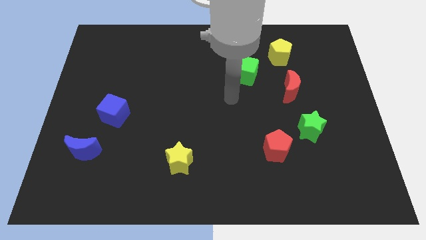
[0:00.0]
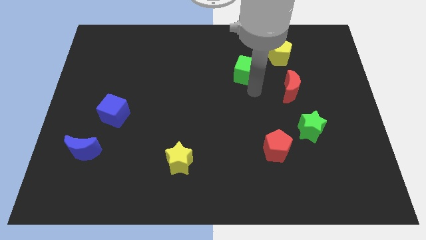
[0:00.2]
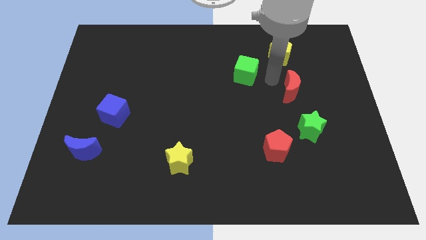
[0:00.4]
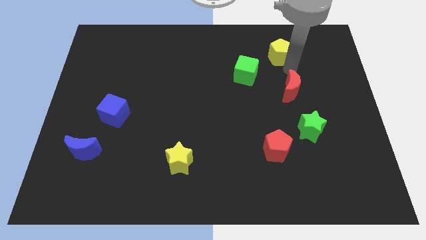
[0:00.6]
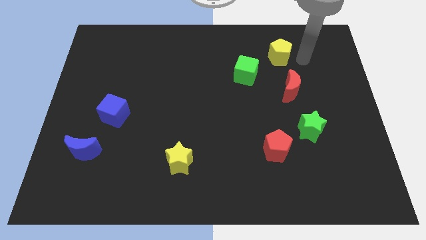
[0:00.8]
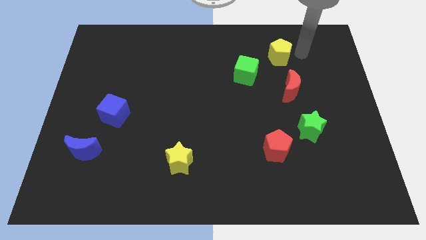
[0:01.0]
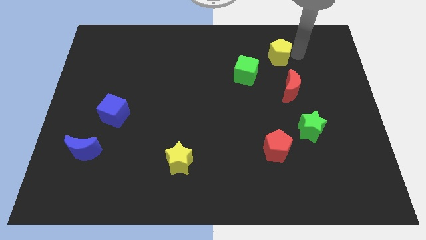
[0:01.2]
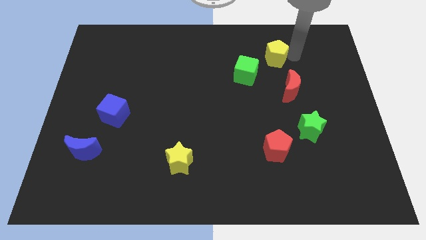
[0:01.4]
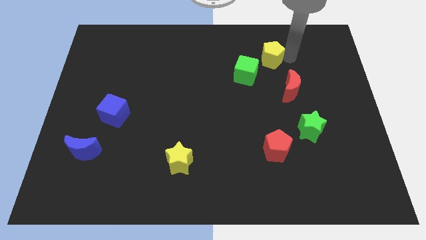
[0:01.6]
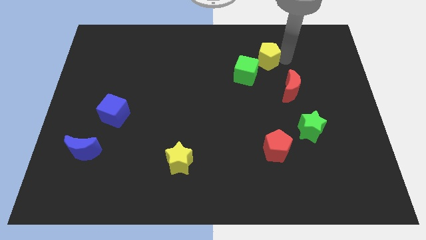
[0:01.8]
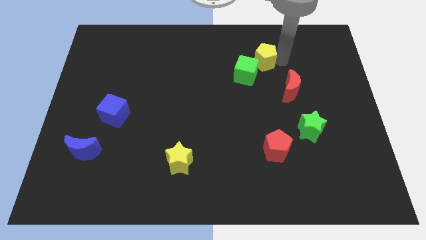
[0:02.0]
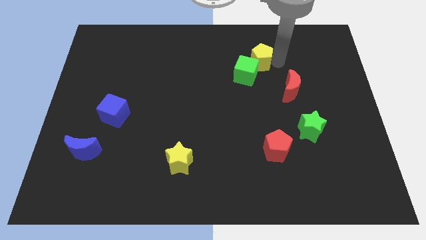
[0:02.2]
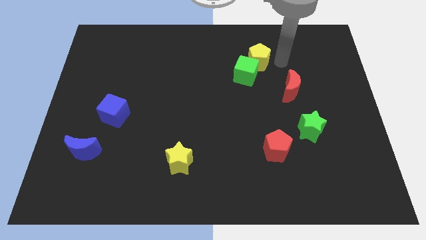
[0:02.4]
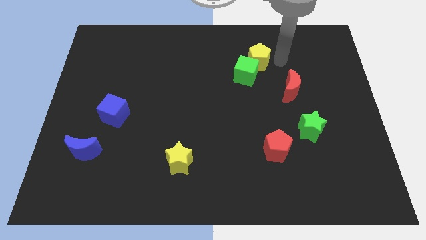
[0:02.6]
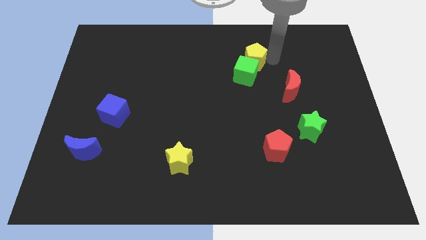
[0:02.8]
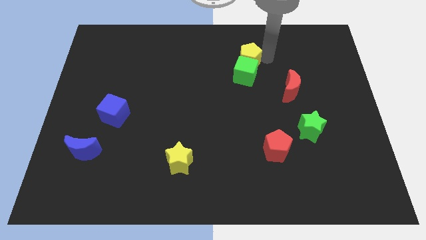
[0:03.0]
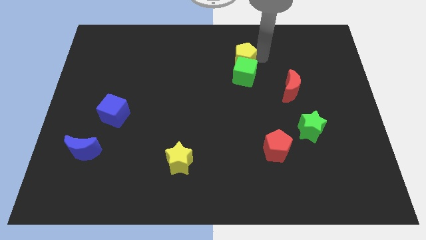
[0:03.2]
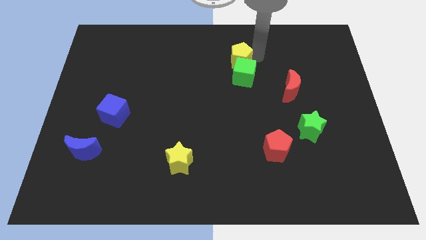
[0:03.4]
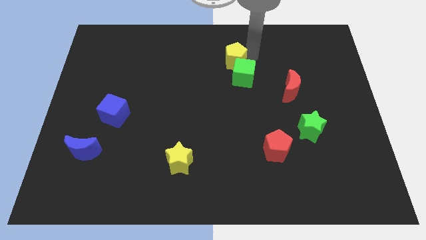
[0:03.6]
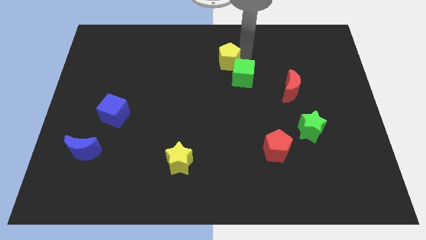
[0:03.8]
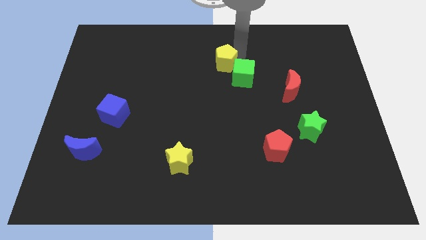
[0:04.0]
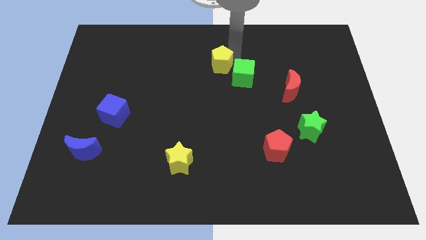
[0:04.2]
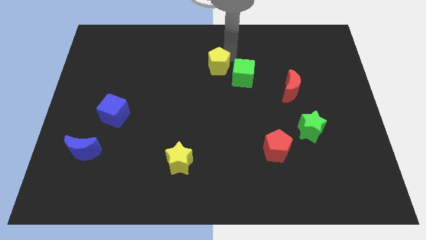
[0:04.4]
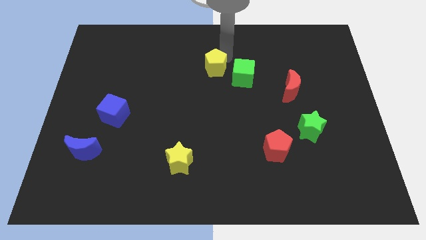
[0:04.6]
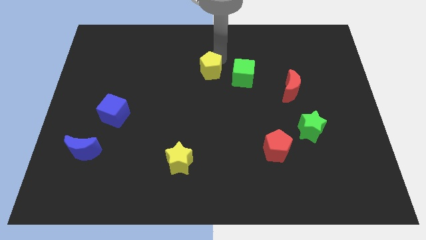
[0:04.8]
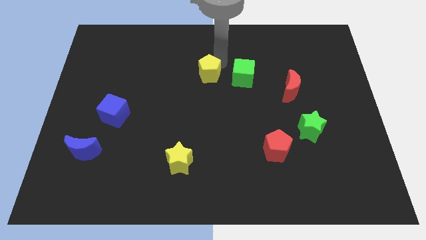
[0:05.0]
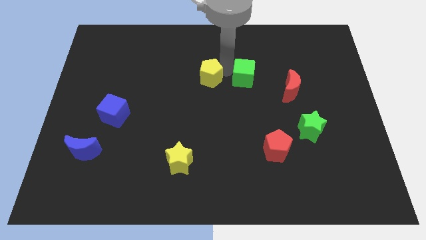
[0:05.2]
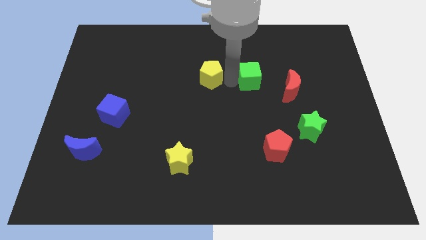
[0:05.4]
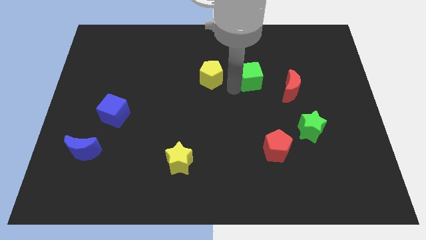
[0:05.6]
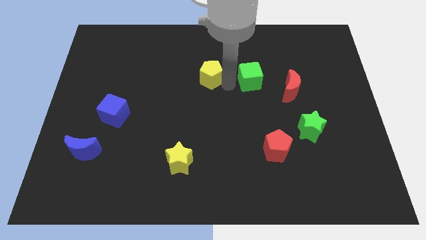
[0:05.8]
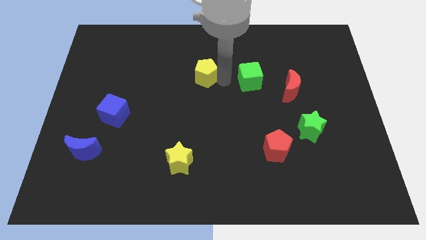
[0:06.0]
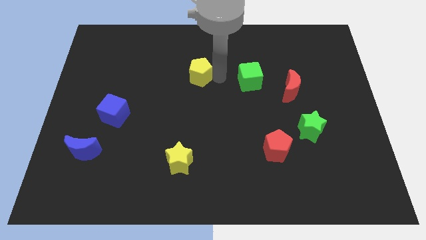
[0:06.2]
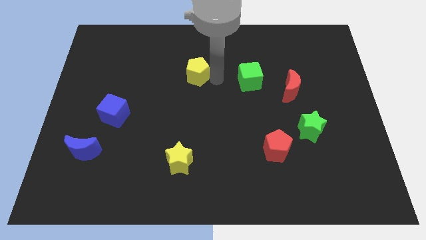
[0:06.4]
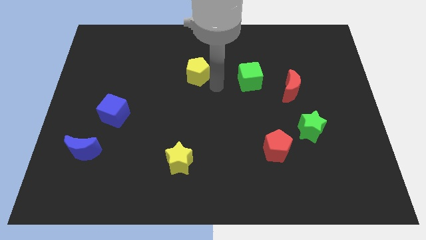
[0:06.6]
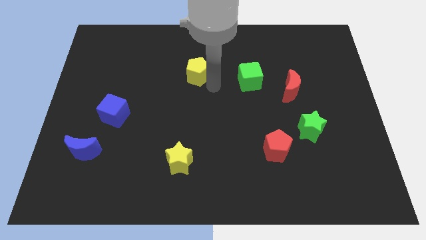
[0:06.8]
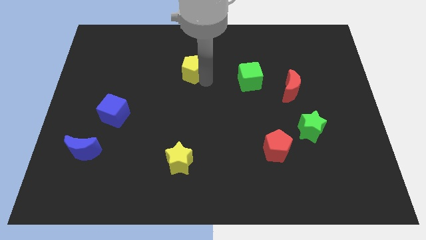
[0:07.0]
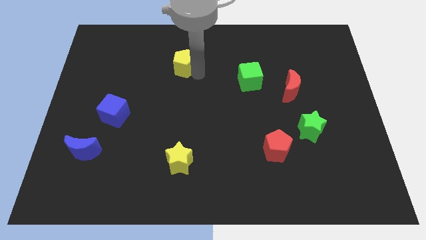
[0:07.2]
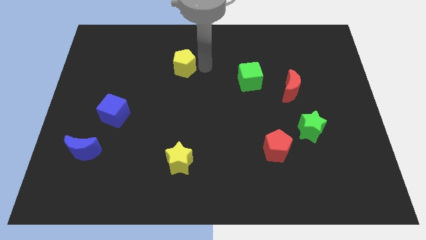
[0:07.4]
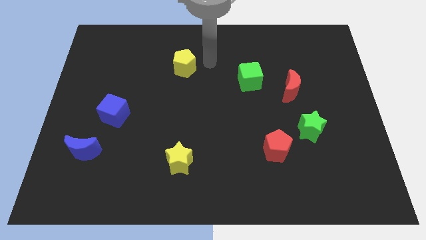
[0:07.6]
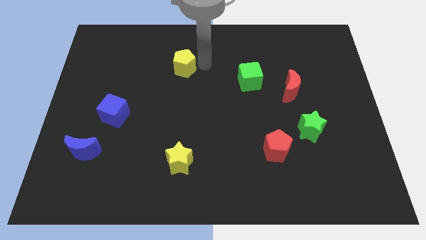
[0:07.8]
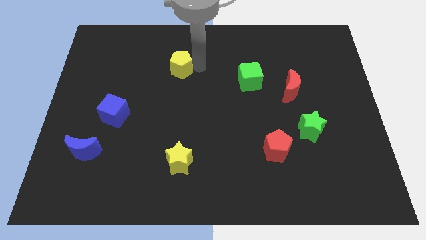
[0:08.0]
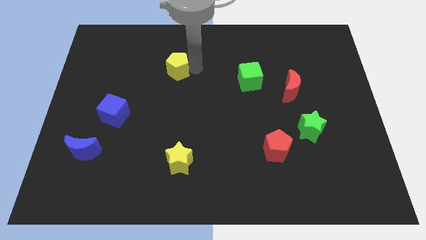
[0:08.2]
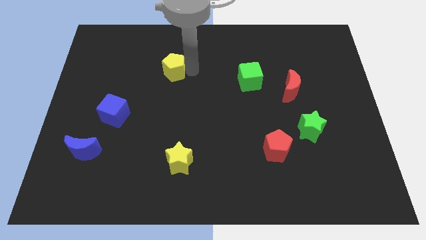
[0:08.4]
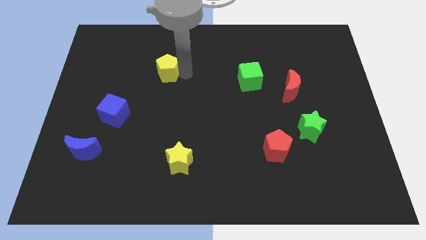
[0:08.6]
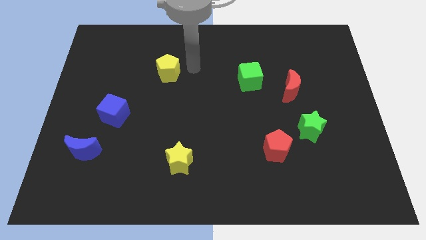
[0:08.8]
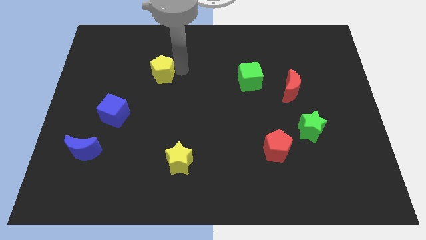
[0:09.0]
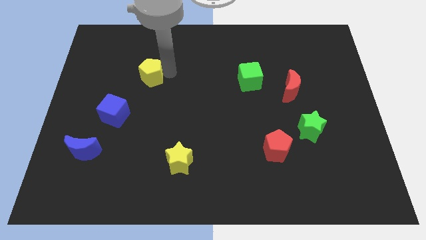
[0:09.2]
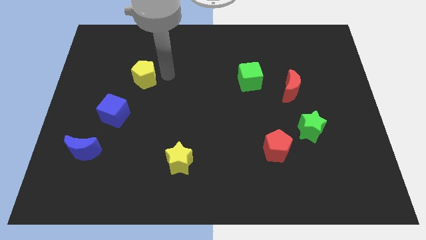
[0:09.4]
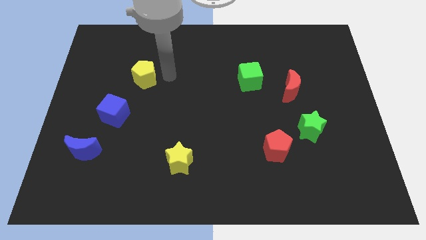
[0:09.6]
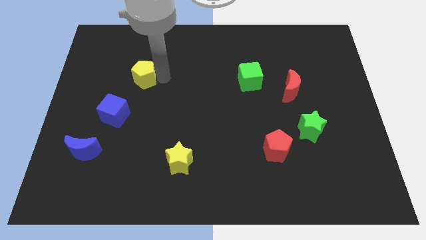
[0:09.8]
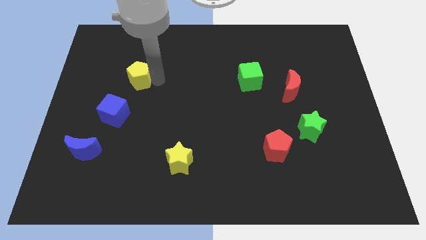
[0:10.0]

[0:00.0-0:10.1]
slide the yellow pentagon to the top of the blue cube

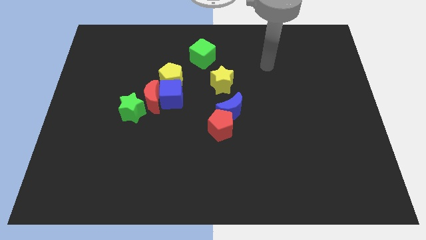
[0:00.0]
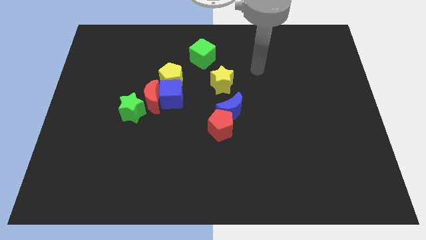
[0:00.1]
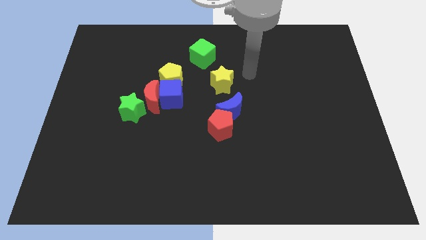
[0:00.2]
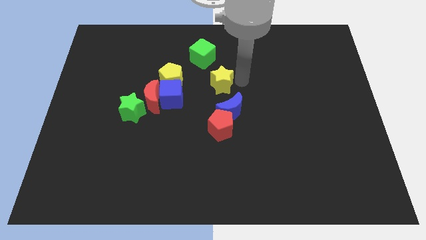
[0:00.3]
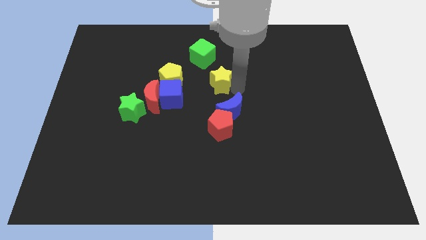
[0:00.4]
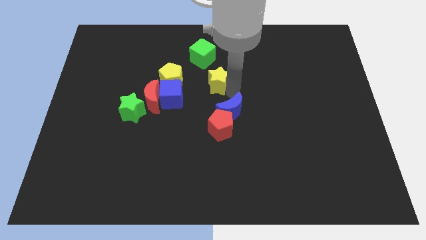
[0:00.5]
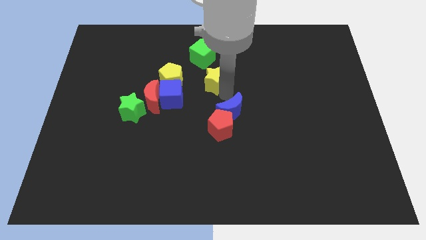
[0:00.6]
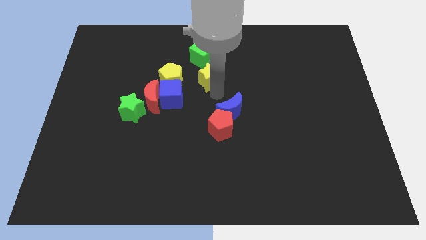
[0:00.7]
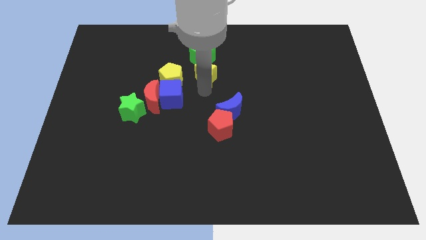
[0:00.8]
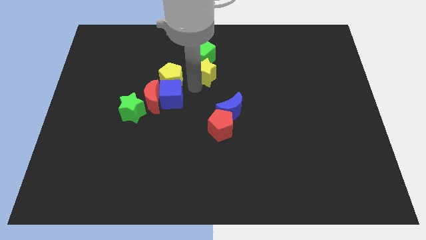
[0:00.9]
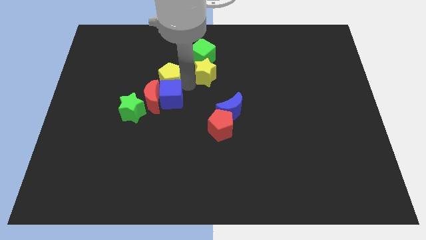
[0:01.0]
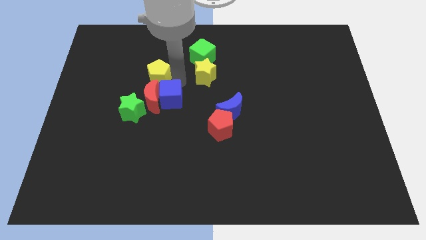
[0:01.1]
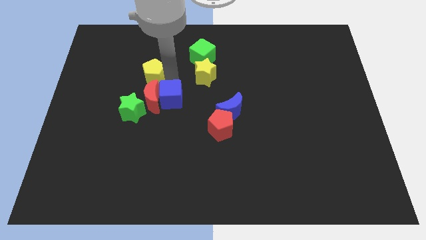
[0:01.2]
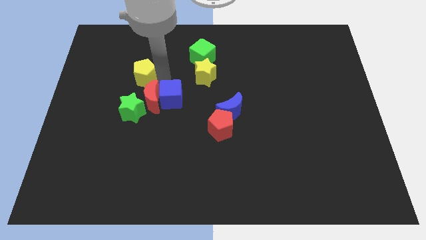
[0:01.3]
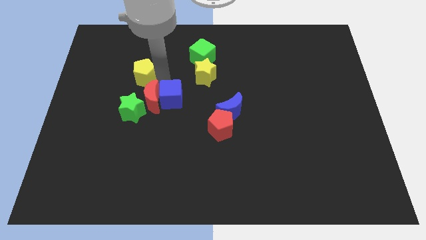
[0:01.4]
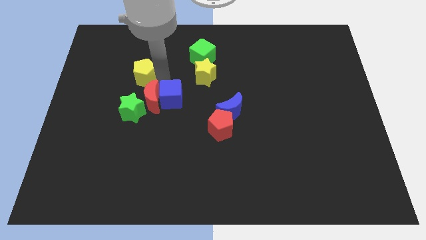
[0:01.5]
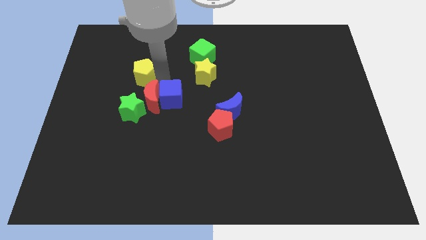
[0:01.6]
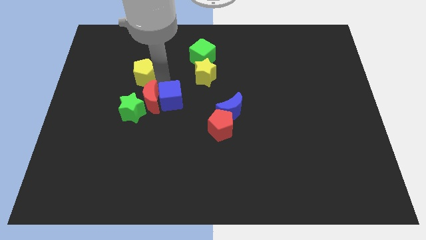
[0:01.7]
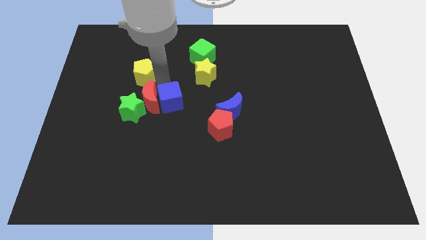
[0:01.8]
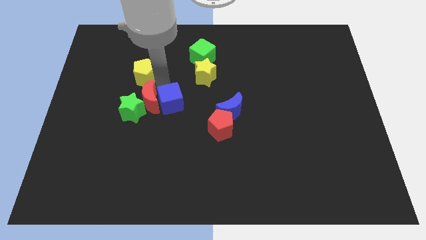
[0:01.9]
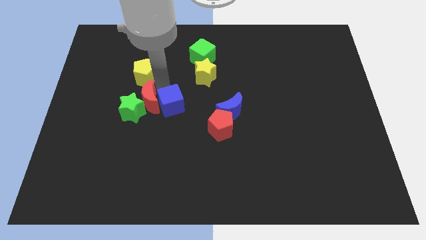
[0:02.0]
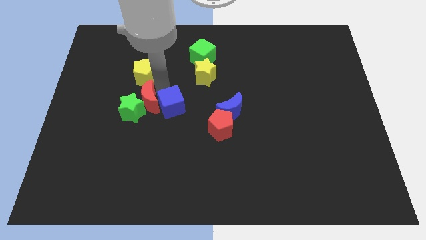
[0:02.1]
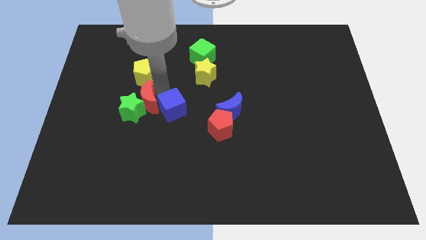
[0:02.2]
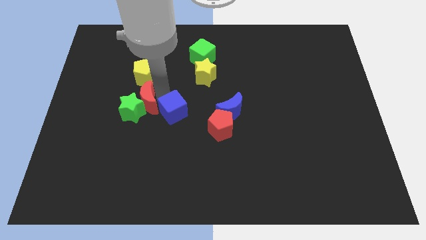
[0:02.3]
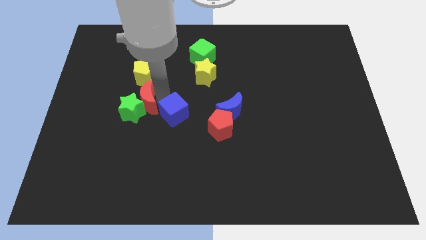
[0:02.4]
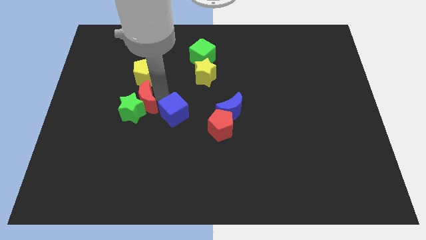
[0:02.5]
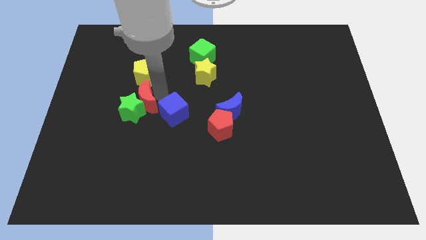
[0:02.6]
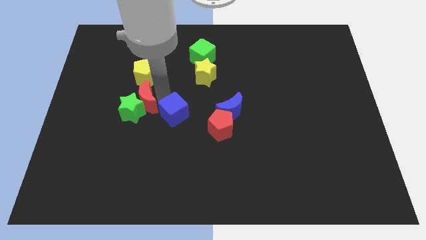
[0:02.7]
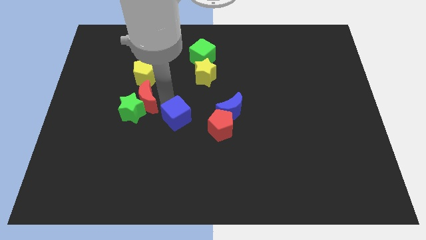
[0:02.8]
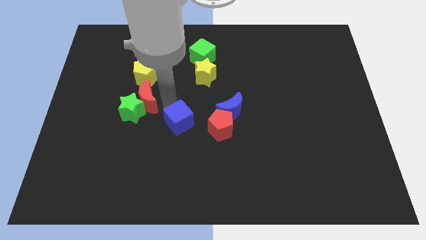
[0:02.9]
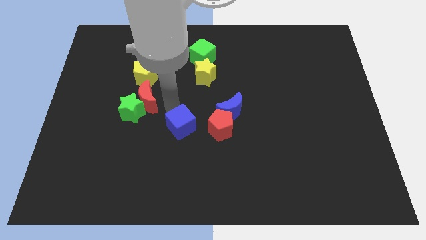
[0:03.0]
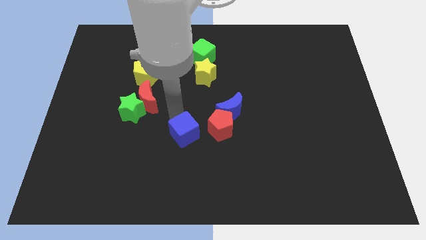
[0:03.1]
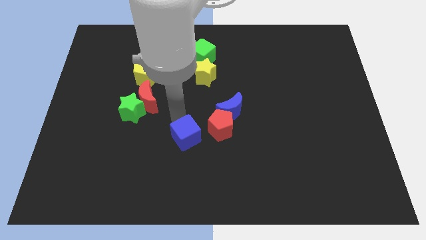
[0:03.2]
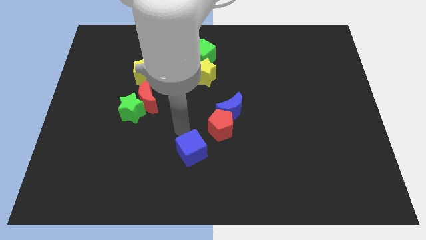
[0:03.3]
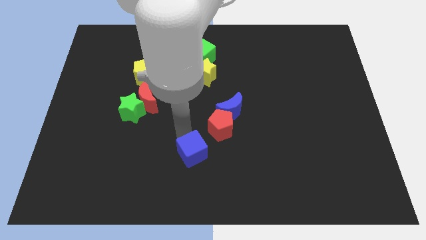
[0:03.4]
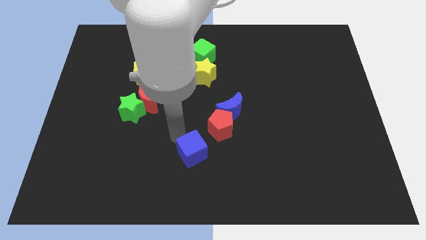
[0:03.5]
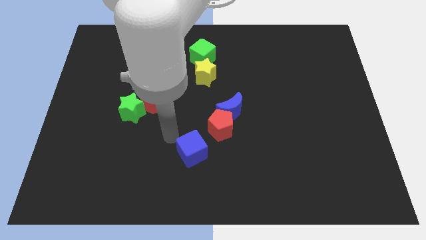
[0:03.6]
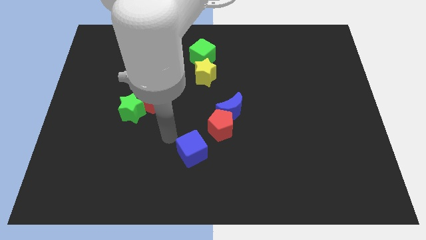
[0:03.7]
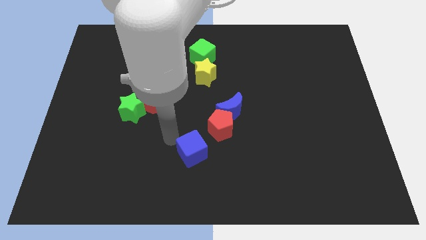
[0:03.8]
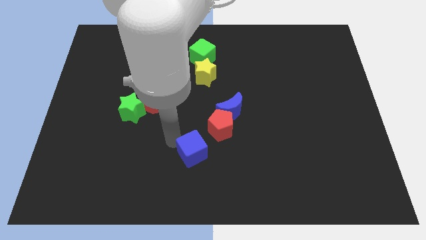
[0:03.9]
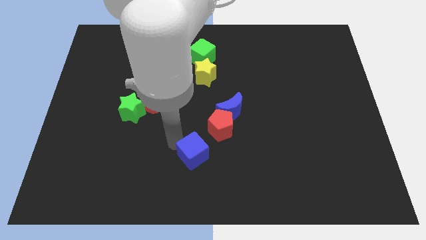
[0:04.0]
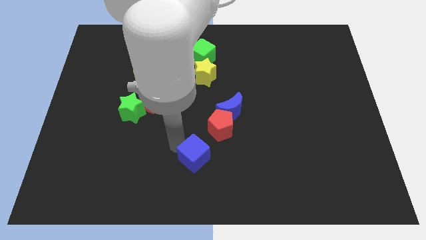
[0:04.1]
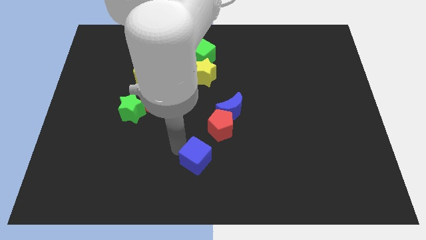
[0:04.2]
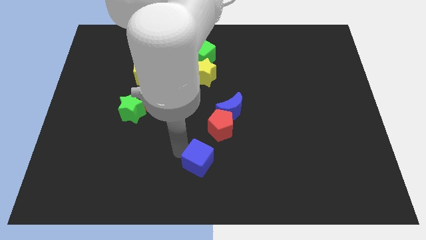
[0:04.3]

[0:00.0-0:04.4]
slide the blue cube to the bottom of the red pentagon
